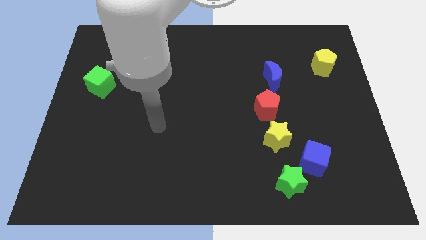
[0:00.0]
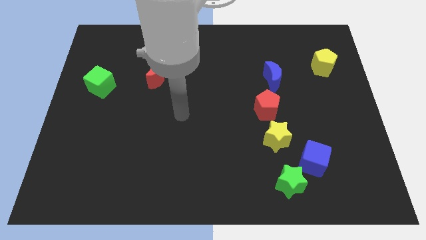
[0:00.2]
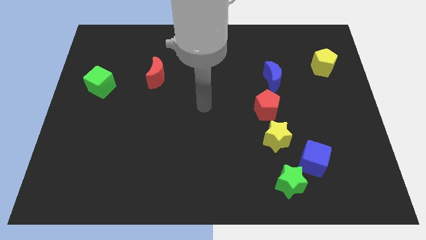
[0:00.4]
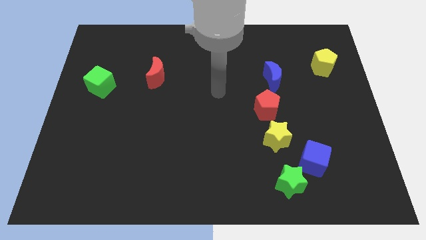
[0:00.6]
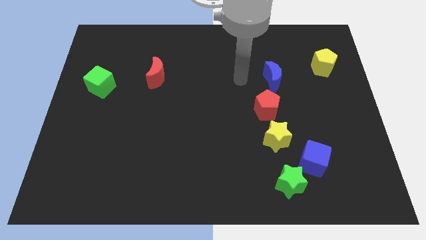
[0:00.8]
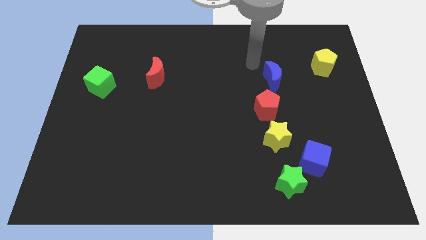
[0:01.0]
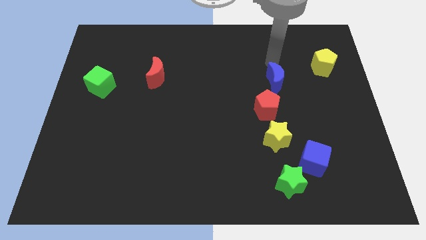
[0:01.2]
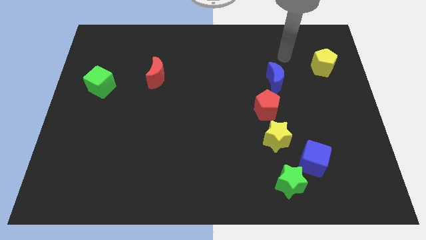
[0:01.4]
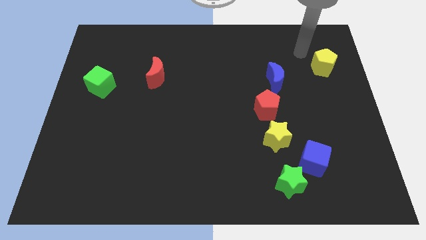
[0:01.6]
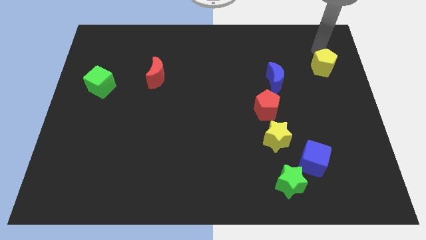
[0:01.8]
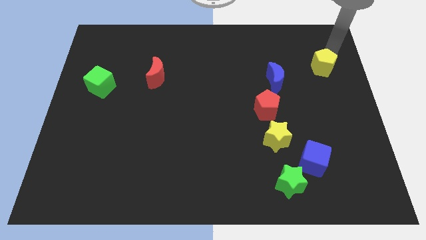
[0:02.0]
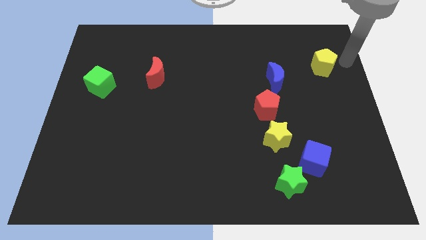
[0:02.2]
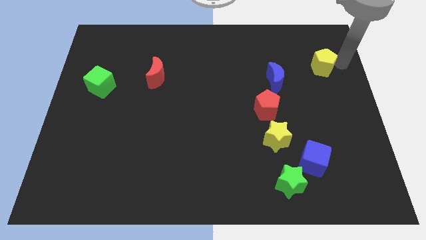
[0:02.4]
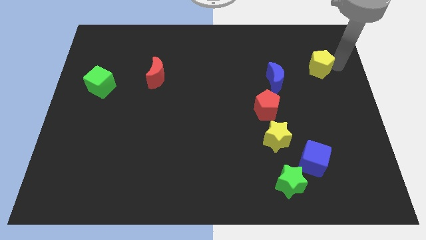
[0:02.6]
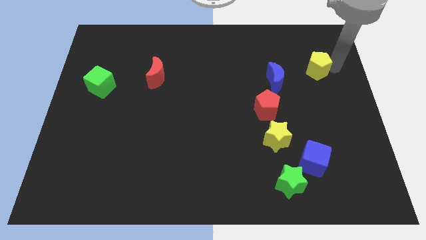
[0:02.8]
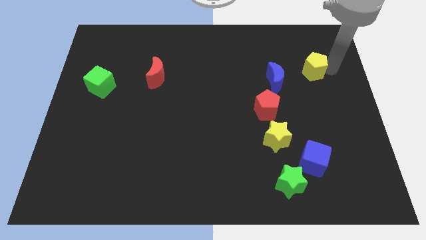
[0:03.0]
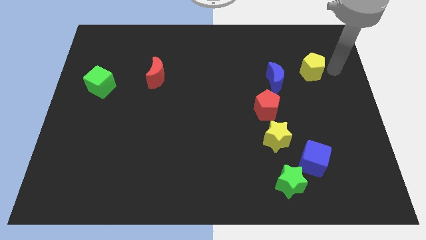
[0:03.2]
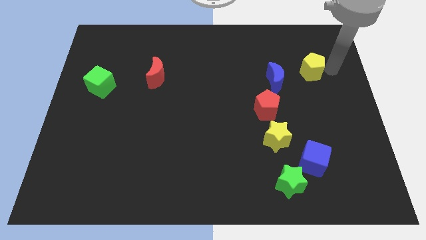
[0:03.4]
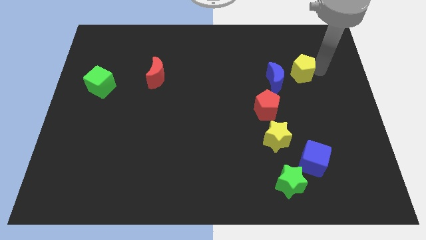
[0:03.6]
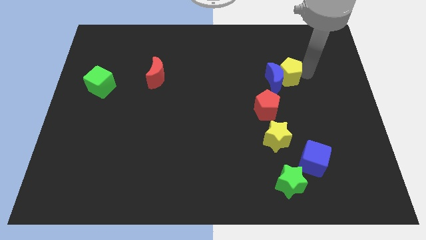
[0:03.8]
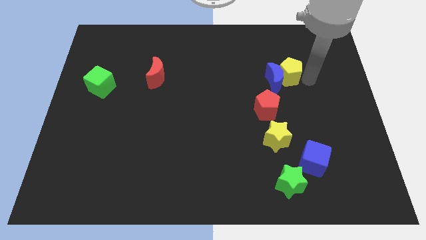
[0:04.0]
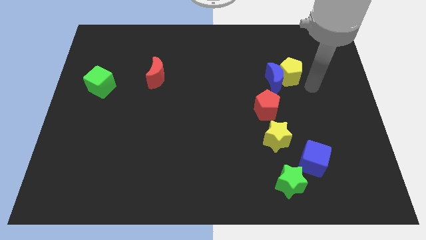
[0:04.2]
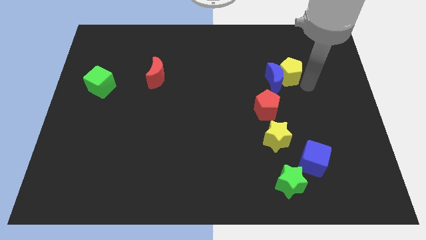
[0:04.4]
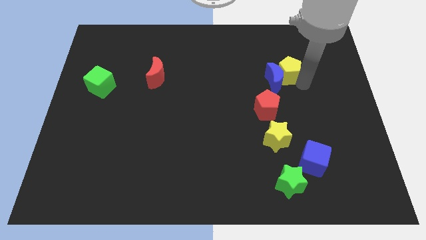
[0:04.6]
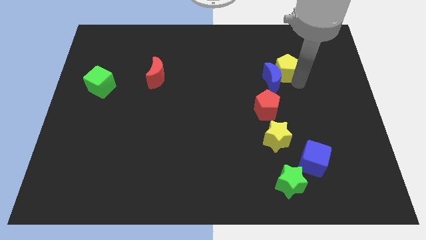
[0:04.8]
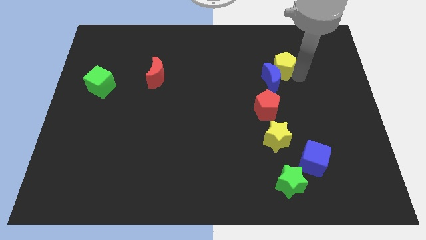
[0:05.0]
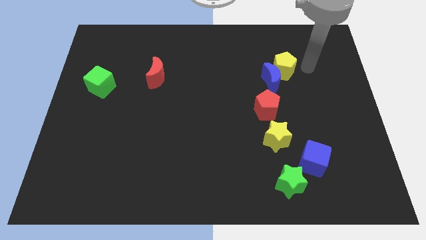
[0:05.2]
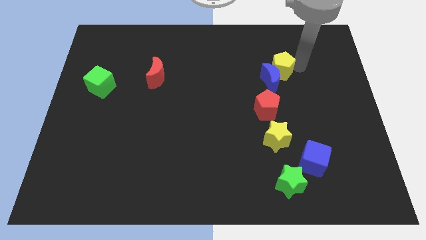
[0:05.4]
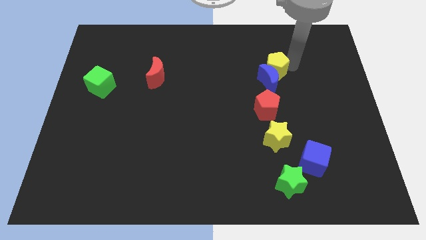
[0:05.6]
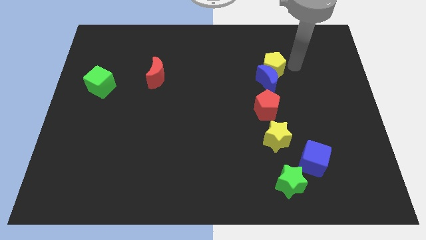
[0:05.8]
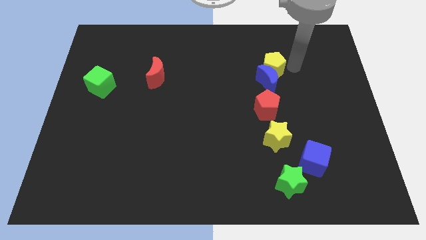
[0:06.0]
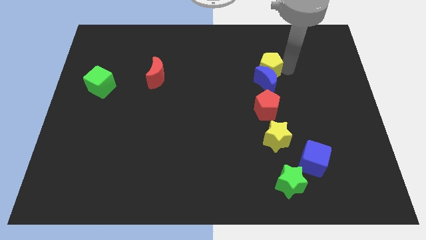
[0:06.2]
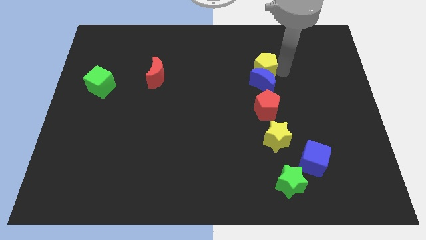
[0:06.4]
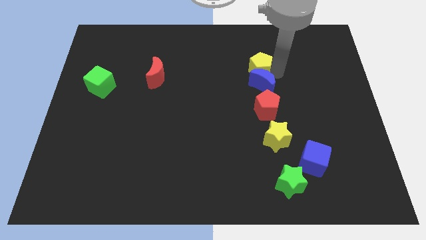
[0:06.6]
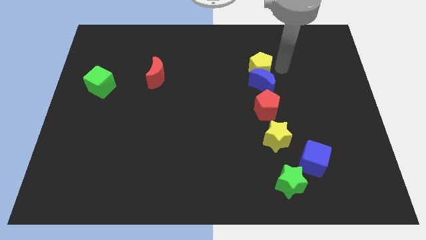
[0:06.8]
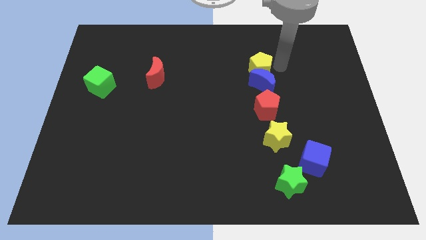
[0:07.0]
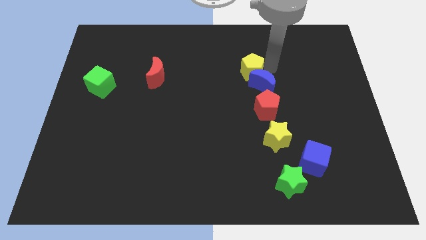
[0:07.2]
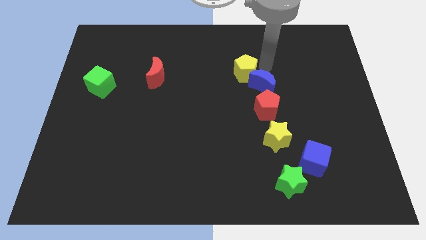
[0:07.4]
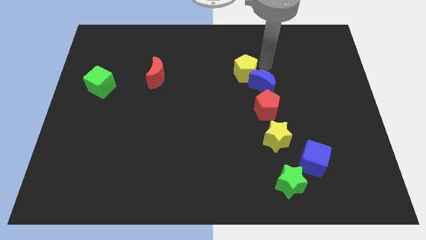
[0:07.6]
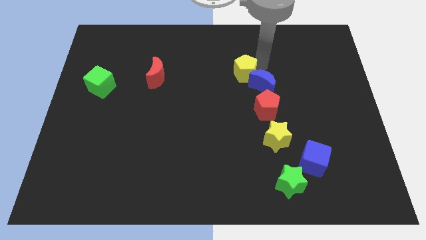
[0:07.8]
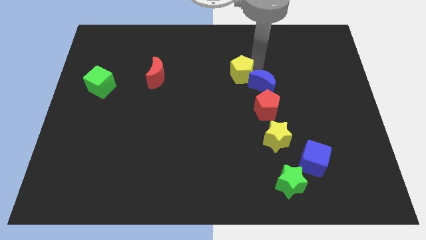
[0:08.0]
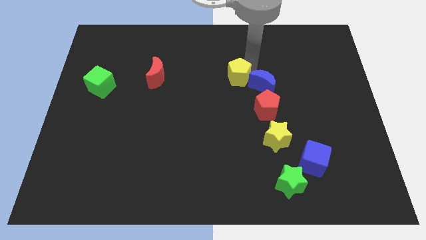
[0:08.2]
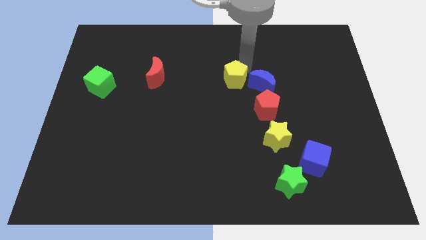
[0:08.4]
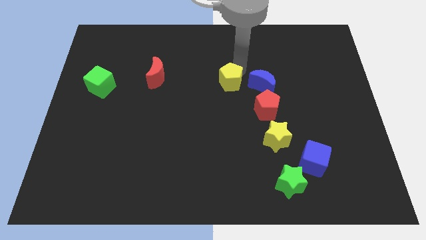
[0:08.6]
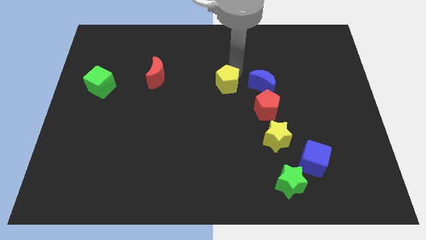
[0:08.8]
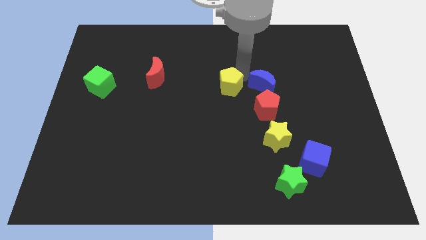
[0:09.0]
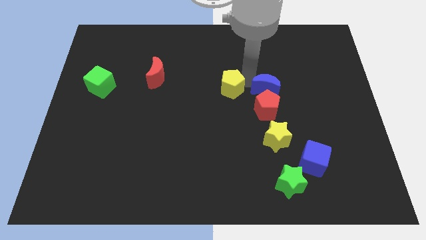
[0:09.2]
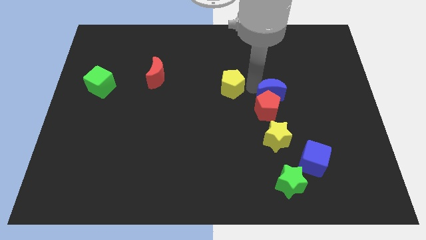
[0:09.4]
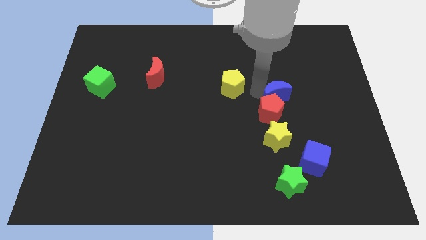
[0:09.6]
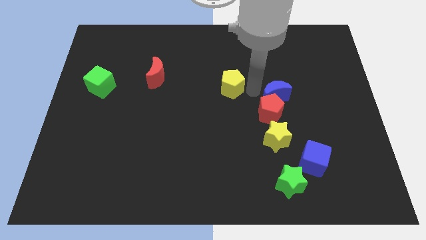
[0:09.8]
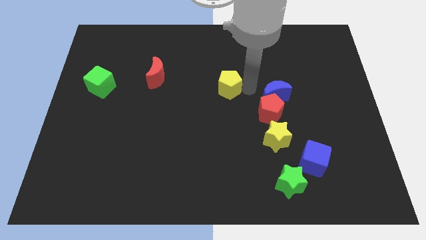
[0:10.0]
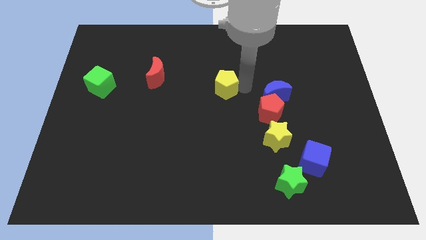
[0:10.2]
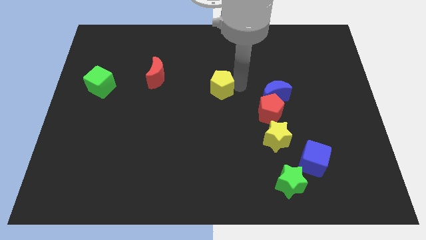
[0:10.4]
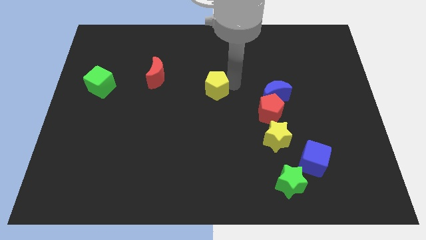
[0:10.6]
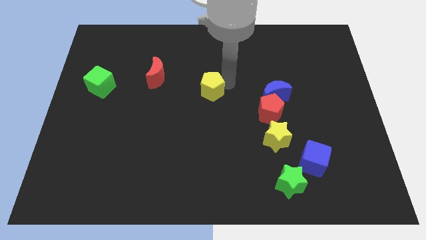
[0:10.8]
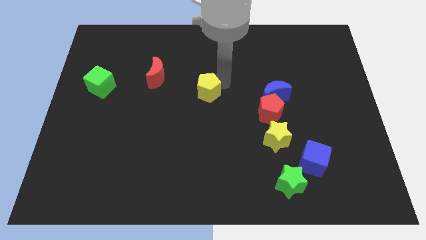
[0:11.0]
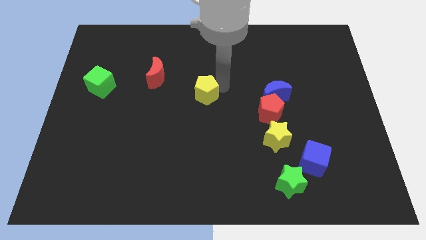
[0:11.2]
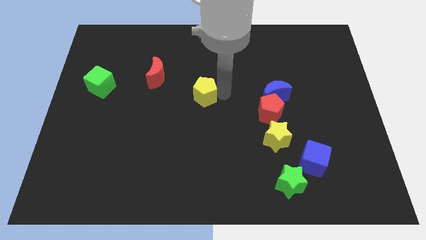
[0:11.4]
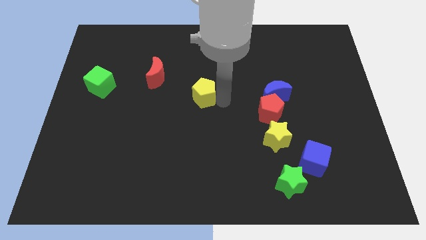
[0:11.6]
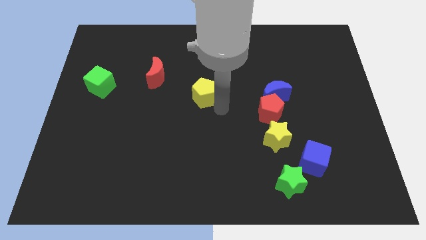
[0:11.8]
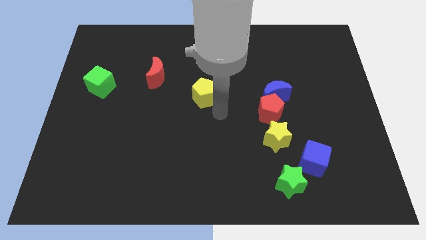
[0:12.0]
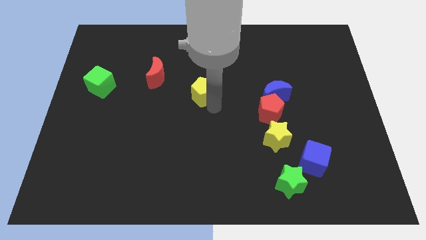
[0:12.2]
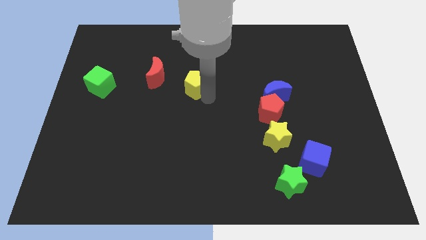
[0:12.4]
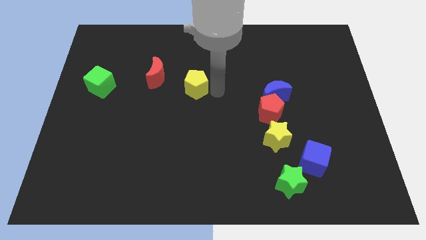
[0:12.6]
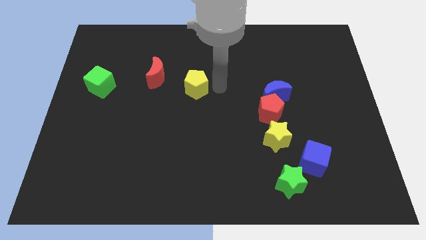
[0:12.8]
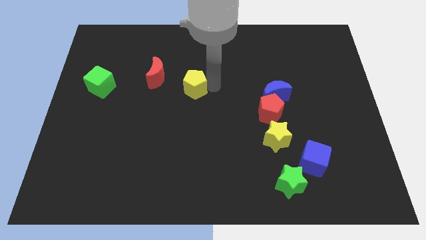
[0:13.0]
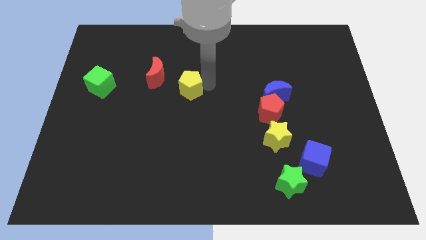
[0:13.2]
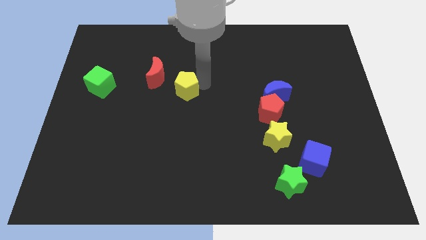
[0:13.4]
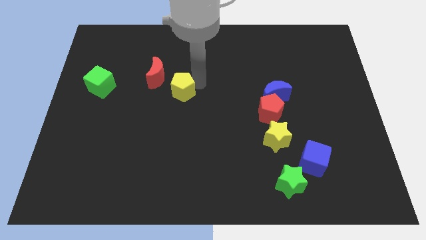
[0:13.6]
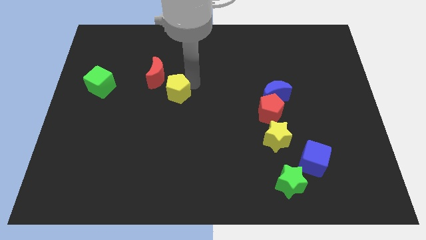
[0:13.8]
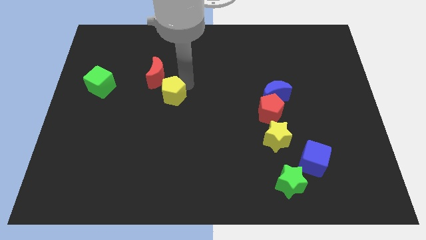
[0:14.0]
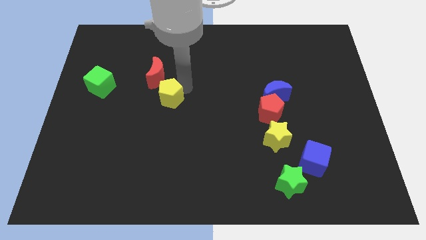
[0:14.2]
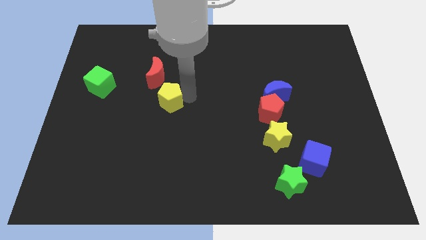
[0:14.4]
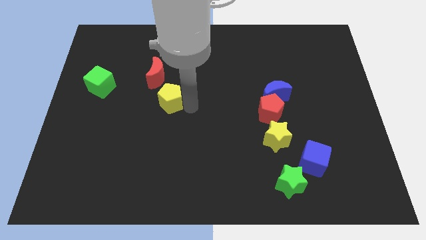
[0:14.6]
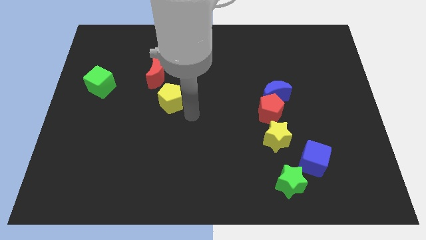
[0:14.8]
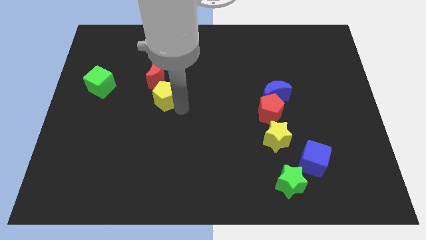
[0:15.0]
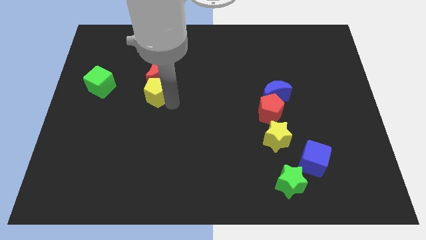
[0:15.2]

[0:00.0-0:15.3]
move the yellow pentagon to the bottom left of the red moon
